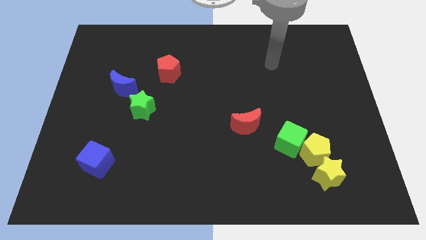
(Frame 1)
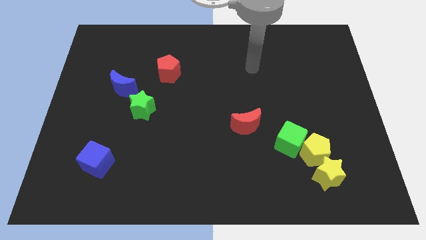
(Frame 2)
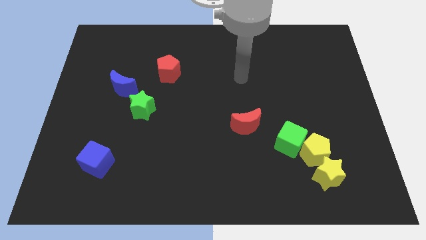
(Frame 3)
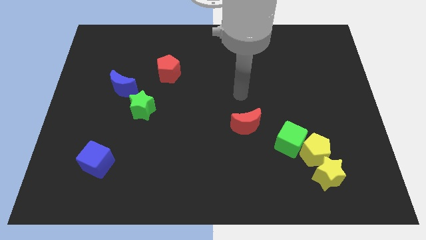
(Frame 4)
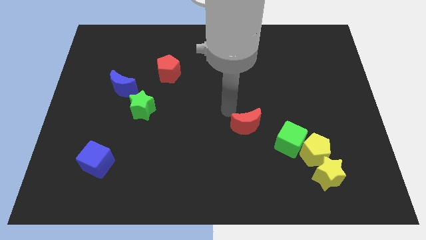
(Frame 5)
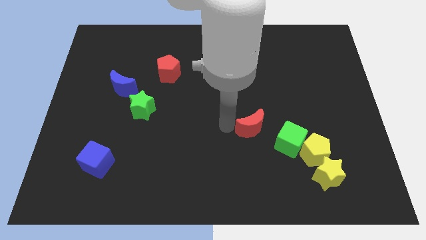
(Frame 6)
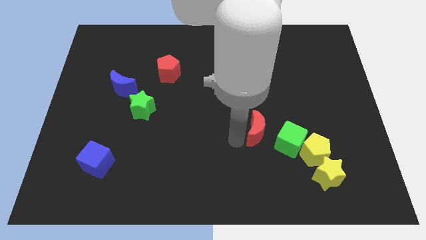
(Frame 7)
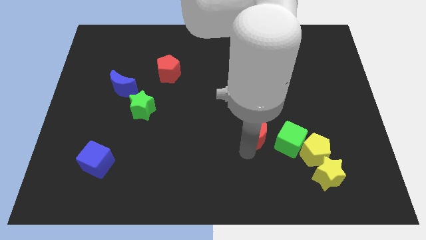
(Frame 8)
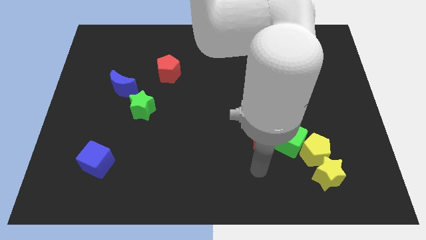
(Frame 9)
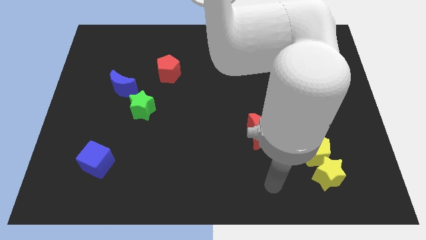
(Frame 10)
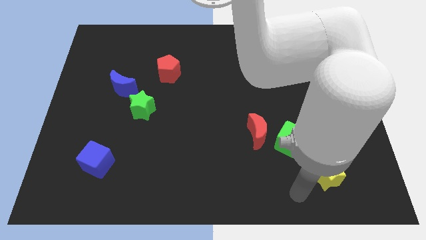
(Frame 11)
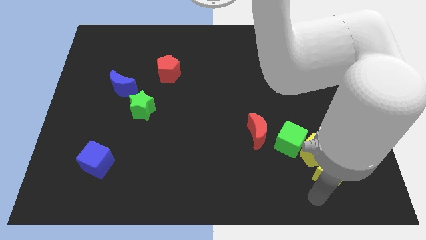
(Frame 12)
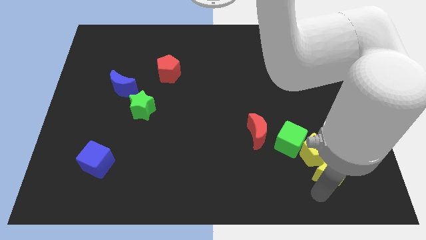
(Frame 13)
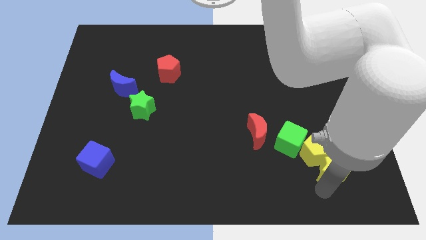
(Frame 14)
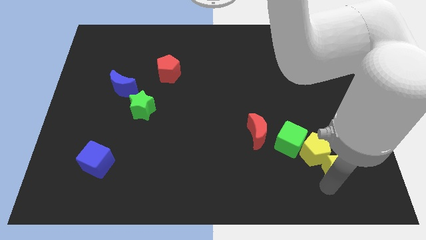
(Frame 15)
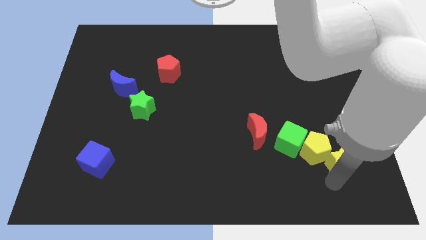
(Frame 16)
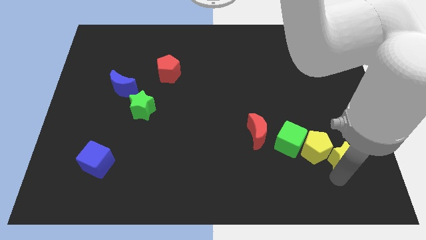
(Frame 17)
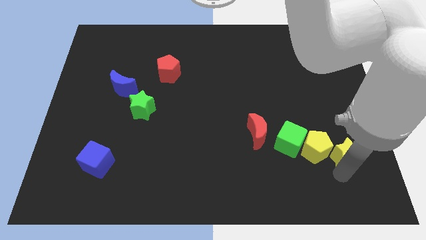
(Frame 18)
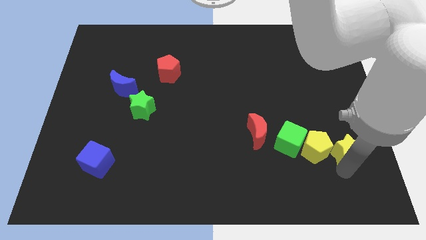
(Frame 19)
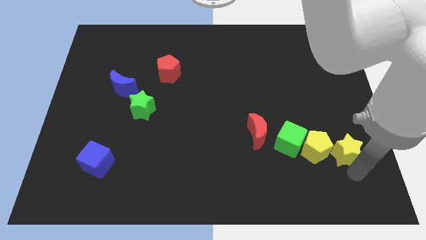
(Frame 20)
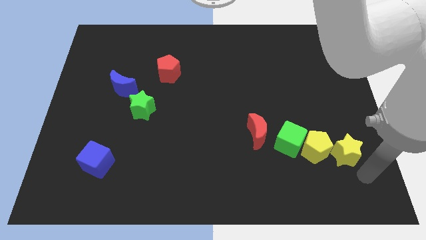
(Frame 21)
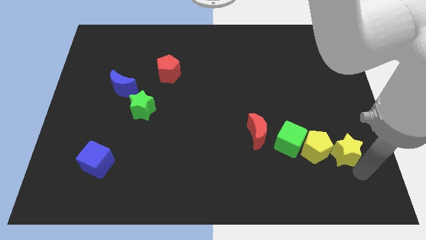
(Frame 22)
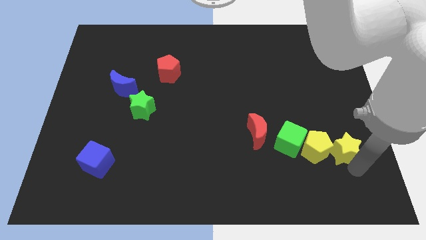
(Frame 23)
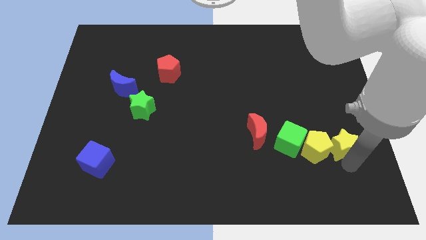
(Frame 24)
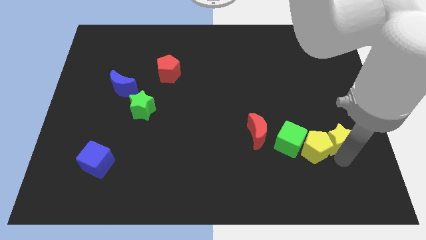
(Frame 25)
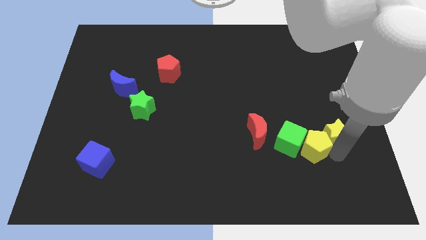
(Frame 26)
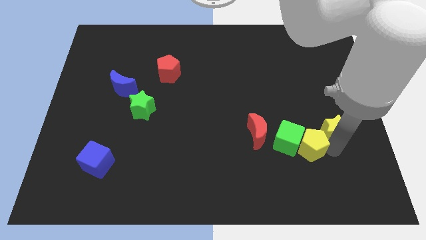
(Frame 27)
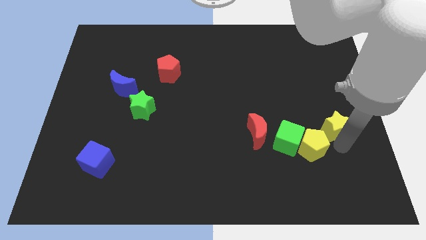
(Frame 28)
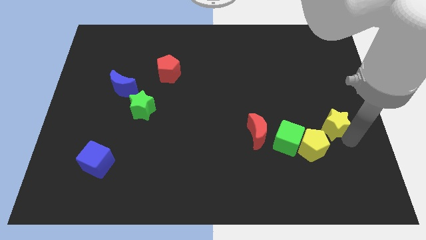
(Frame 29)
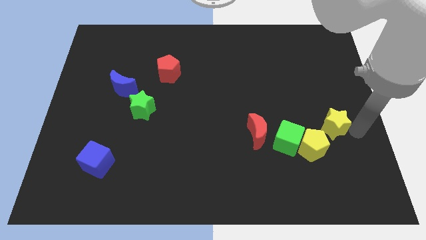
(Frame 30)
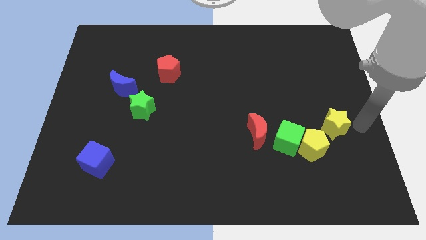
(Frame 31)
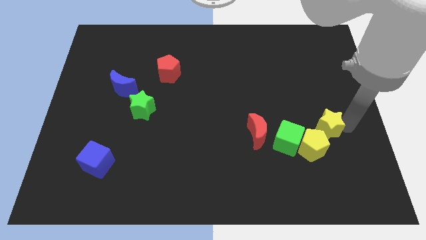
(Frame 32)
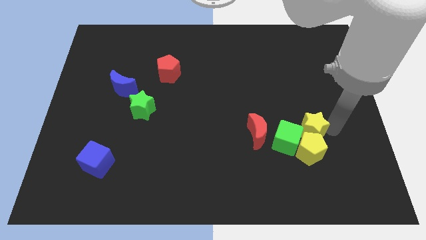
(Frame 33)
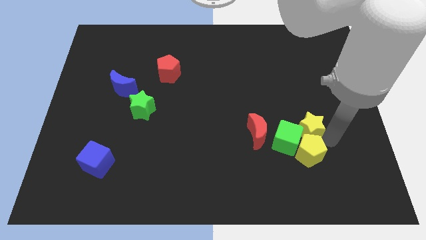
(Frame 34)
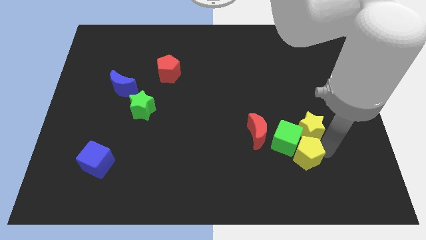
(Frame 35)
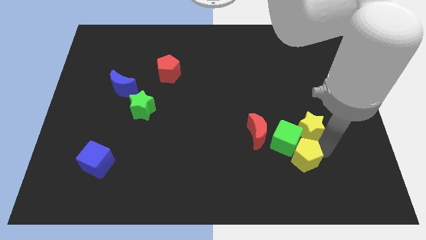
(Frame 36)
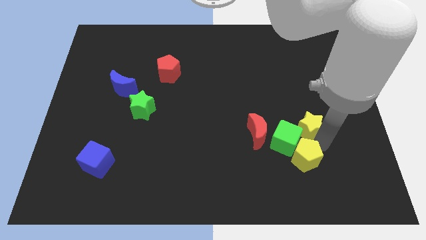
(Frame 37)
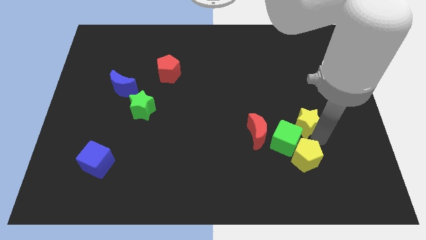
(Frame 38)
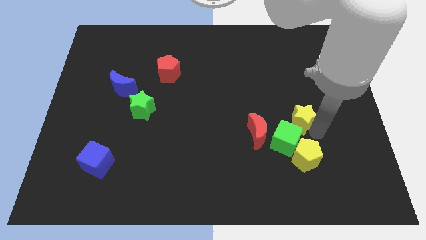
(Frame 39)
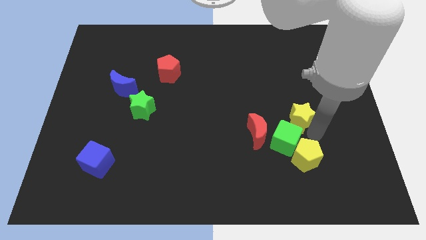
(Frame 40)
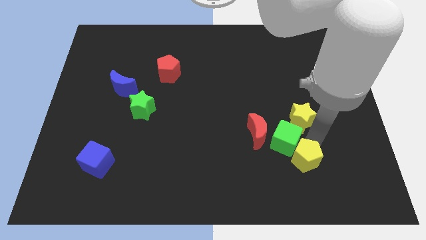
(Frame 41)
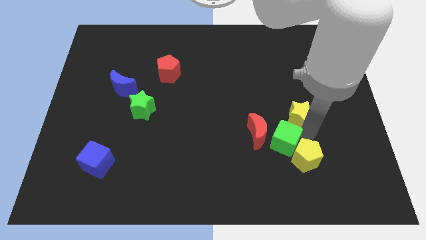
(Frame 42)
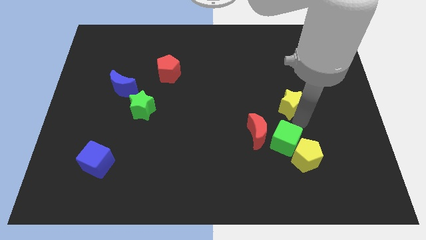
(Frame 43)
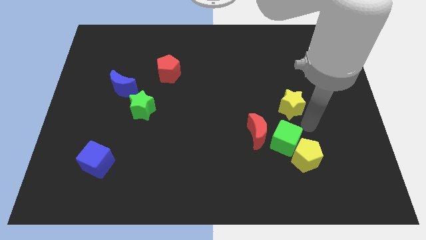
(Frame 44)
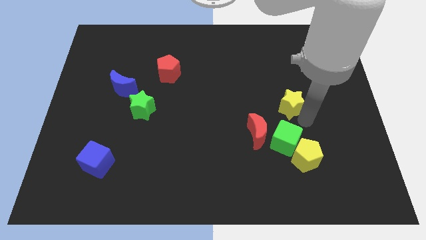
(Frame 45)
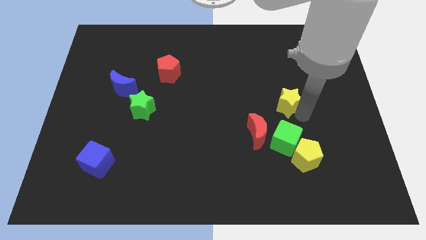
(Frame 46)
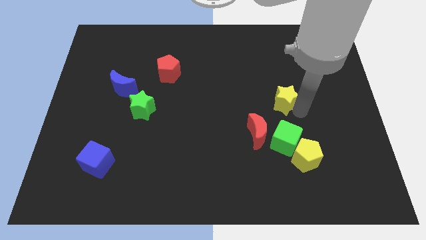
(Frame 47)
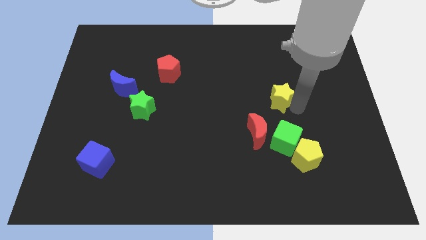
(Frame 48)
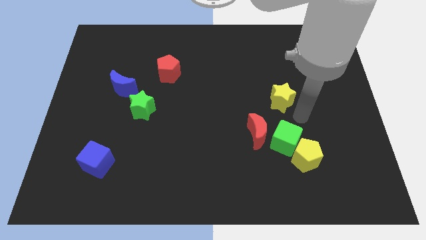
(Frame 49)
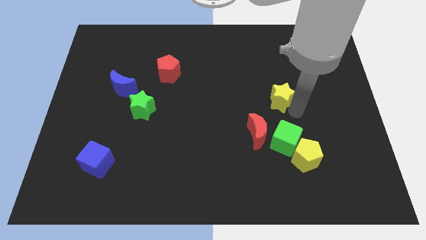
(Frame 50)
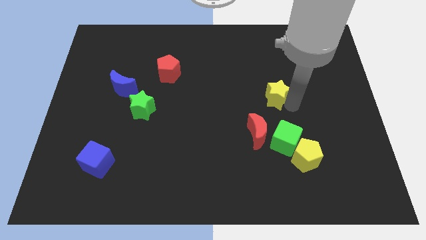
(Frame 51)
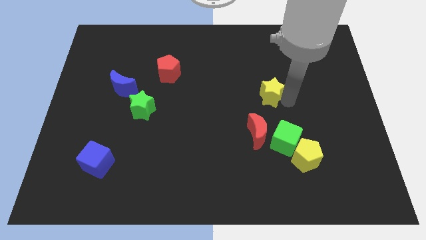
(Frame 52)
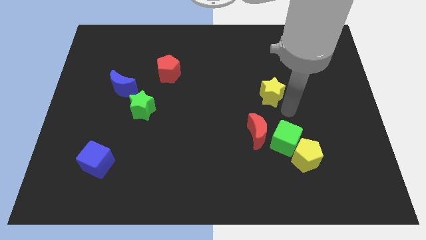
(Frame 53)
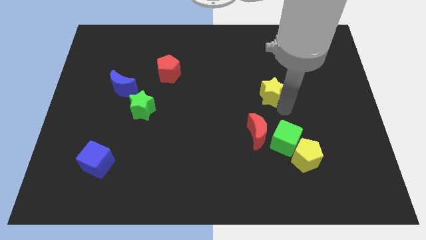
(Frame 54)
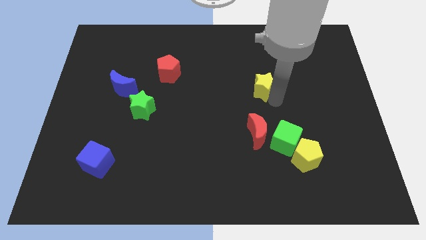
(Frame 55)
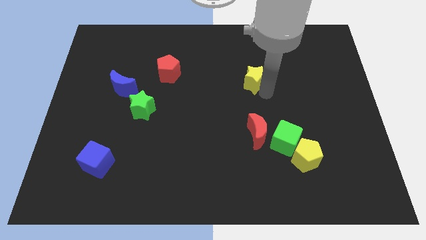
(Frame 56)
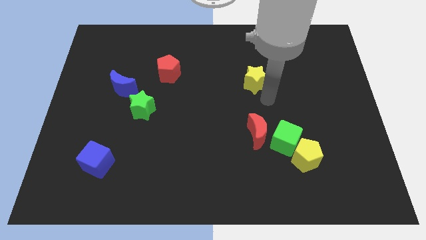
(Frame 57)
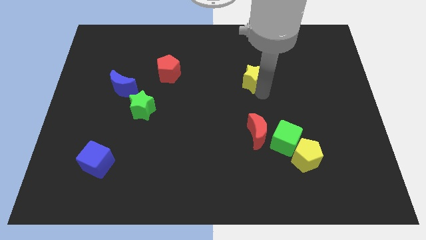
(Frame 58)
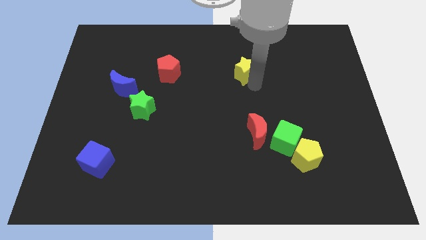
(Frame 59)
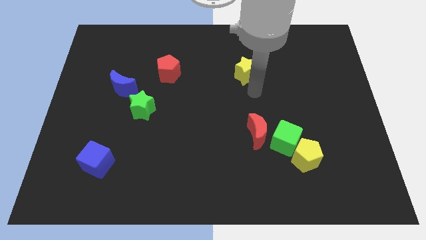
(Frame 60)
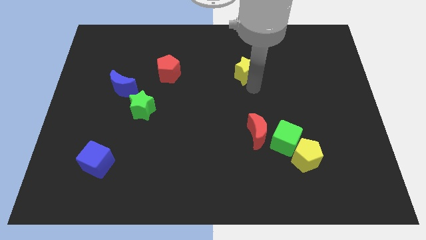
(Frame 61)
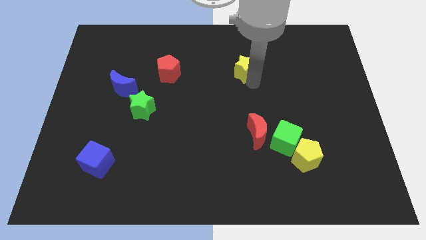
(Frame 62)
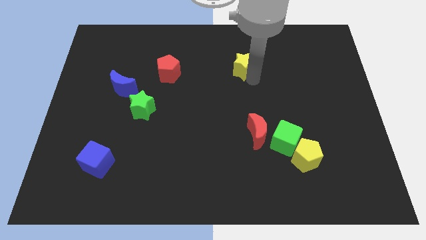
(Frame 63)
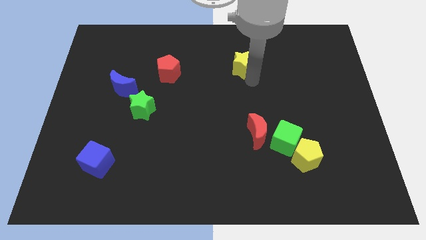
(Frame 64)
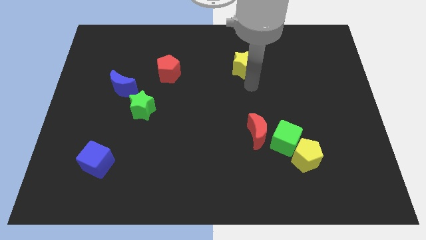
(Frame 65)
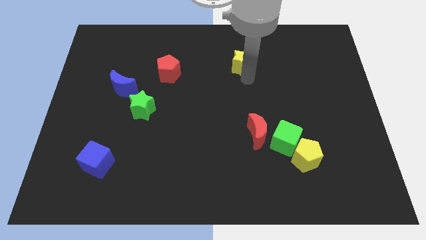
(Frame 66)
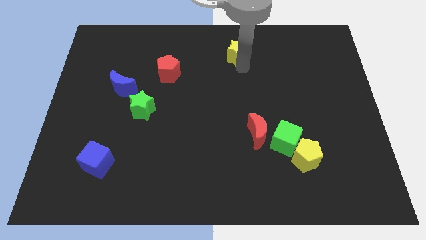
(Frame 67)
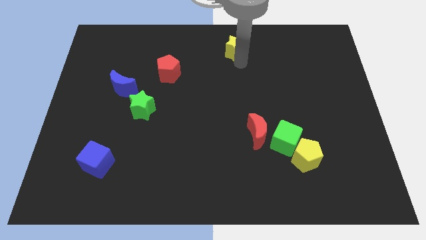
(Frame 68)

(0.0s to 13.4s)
push the yellow star to the towards your base
